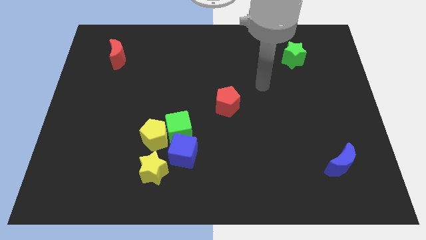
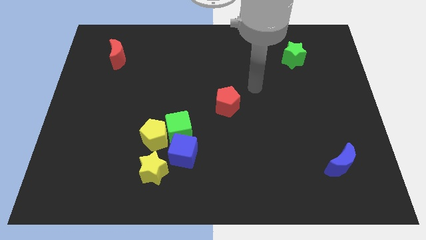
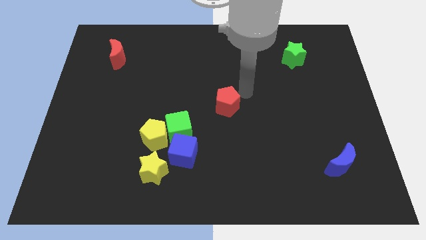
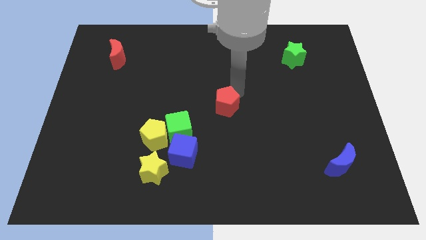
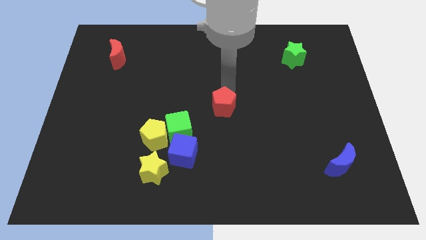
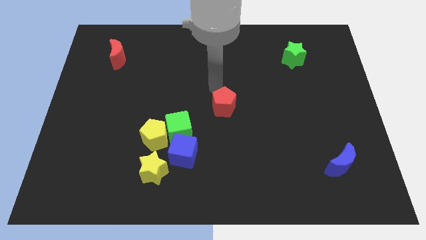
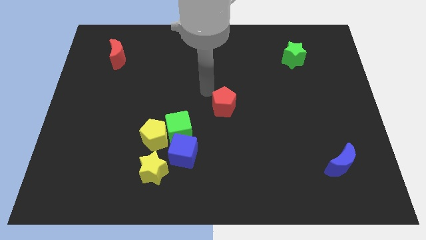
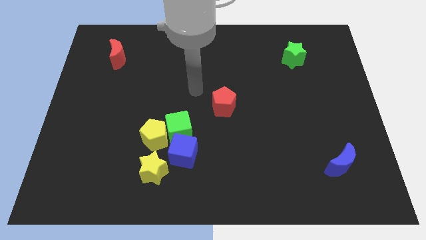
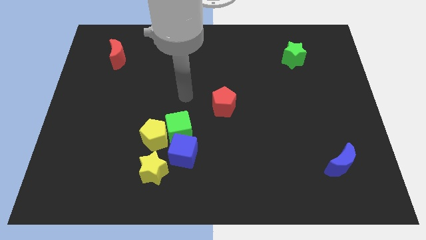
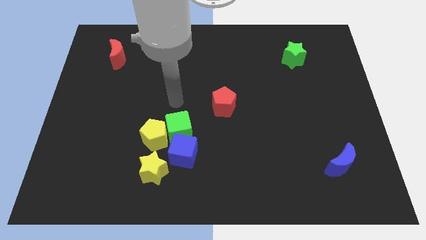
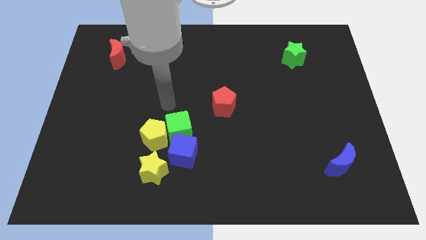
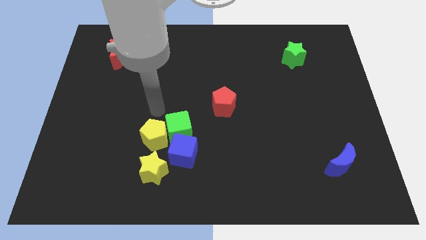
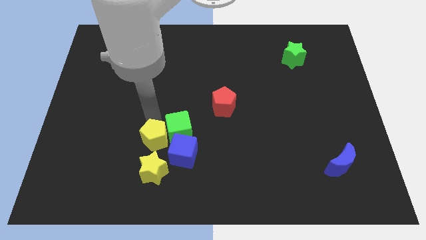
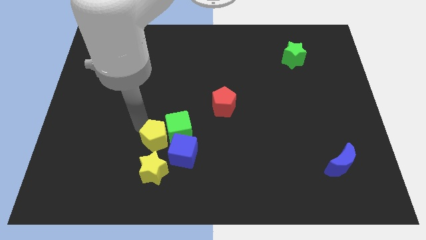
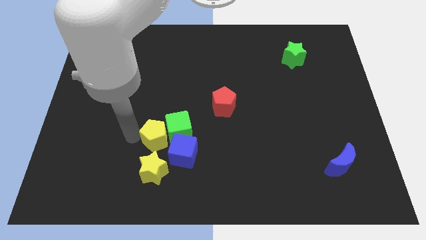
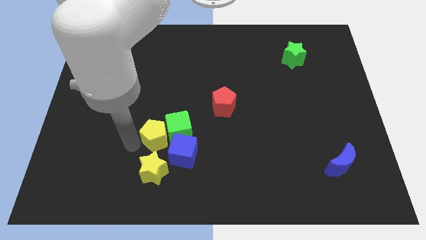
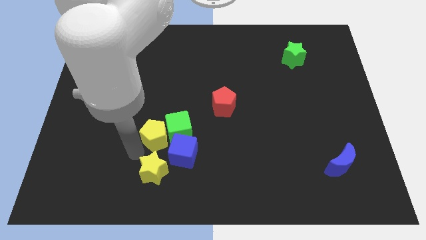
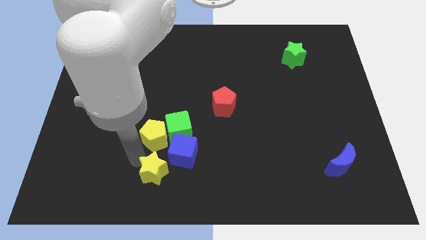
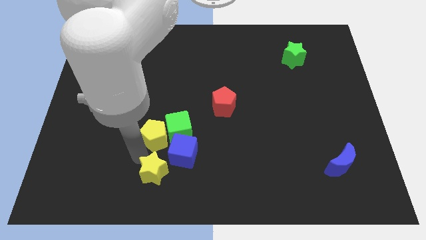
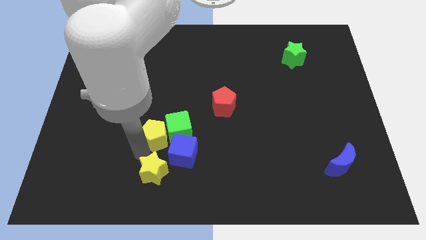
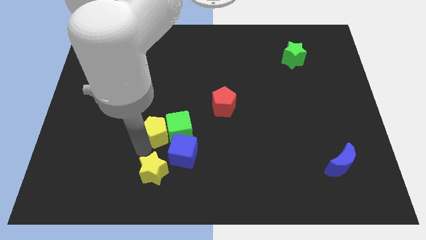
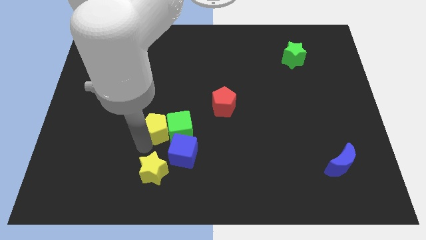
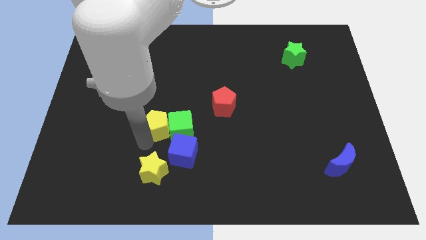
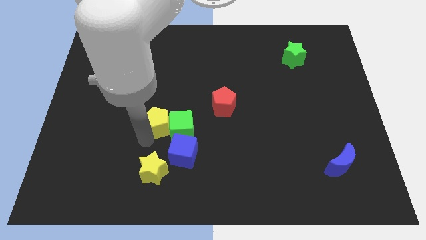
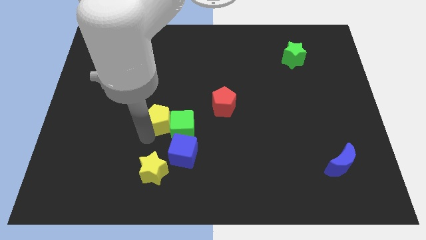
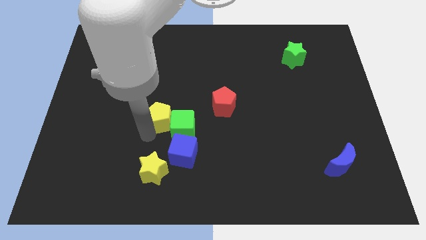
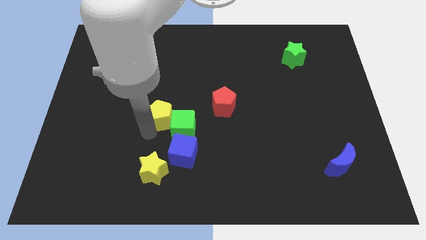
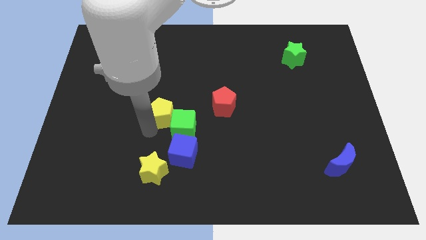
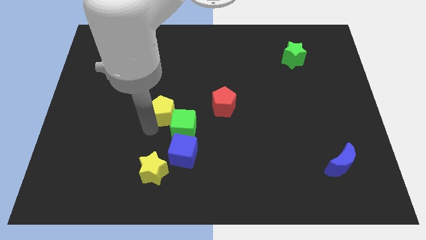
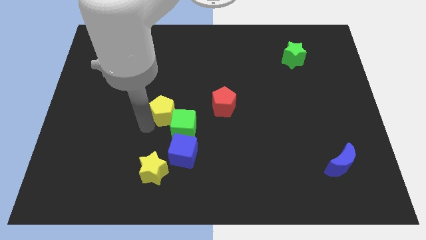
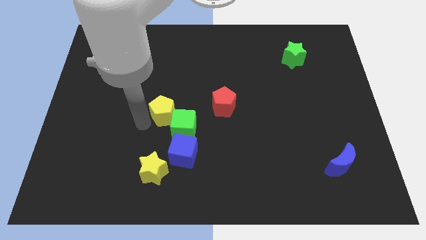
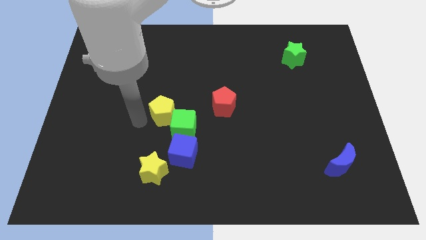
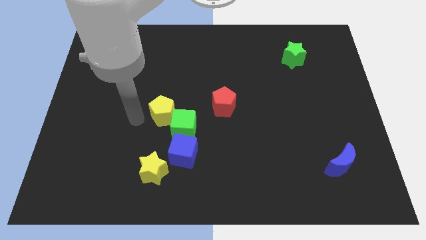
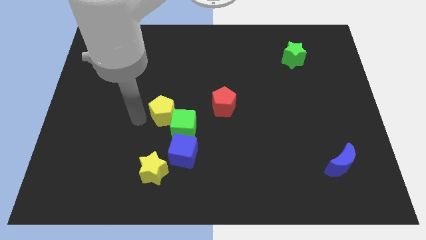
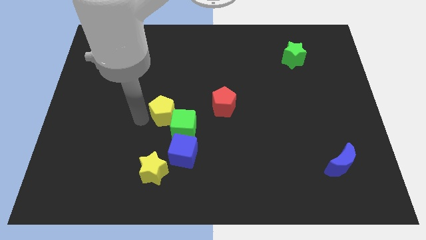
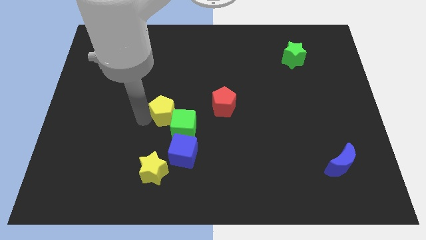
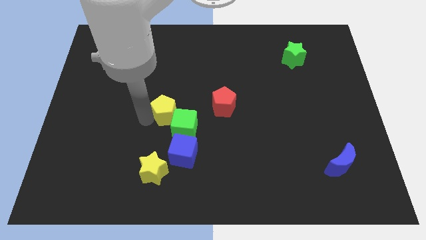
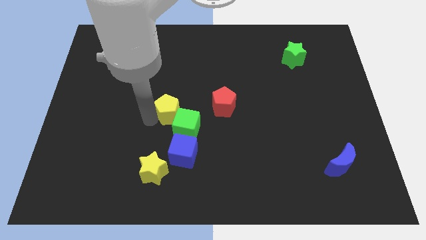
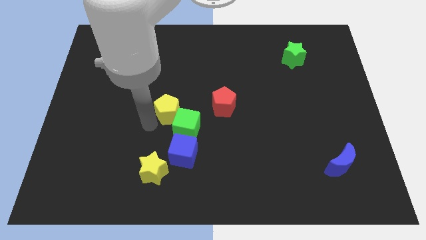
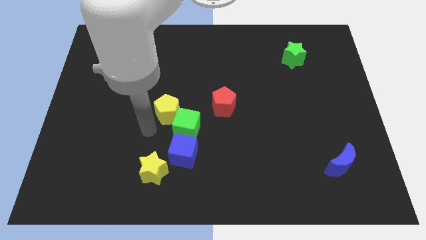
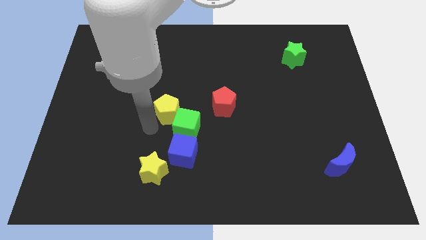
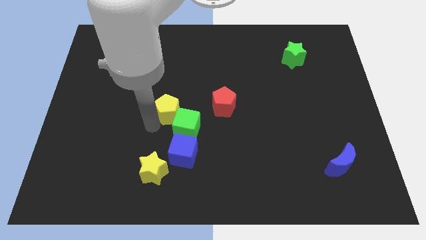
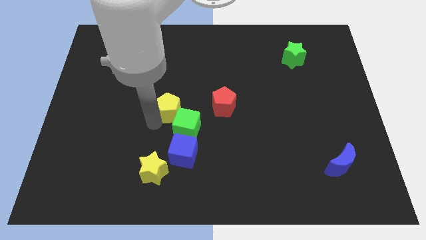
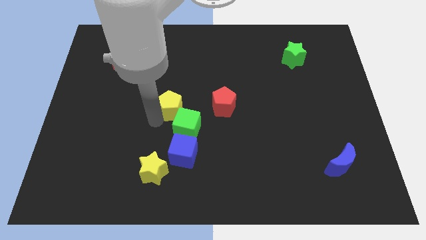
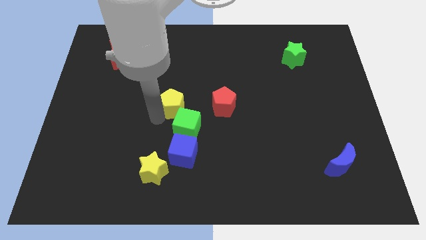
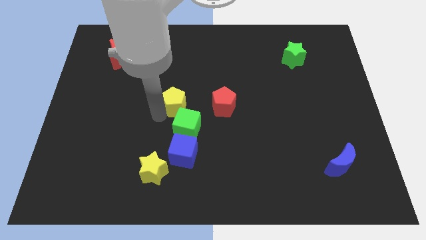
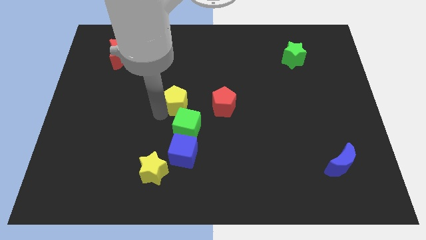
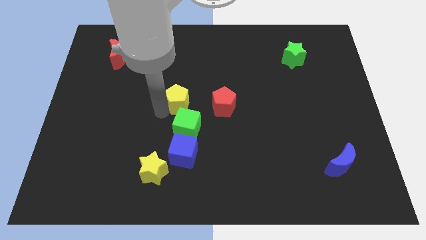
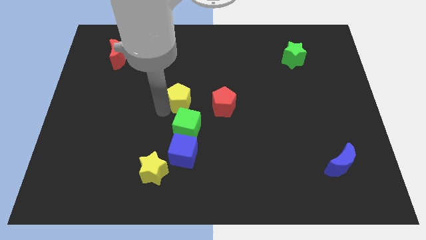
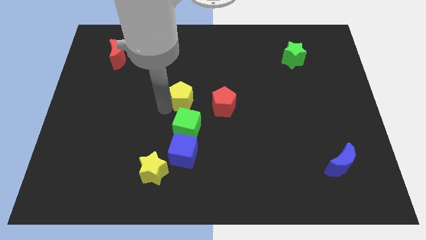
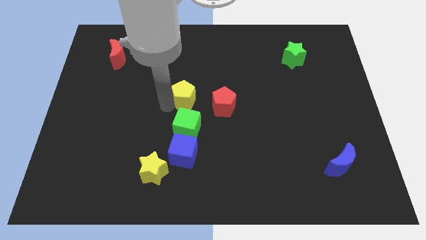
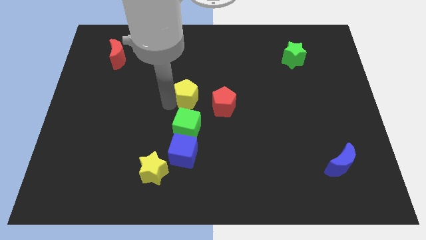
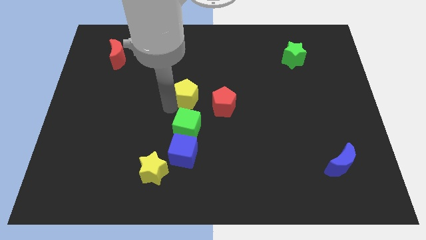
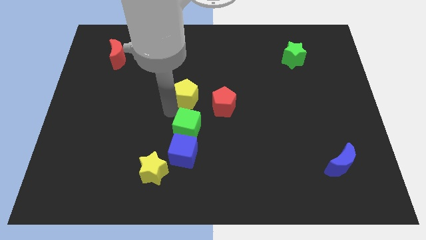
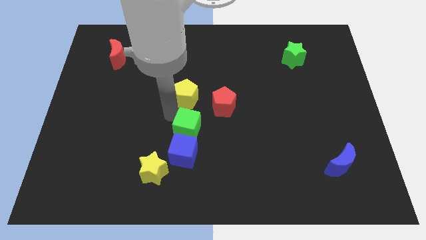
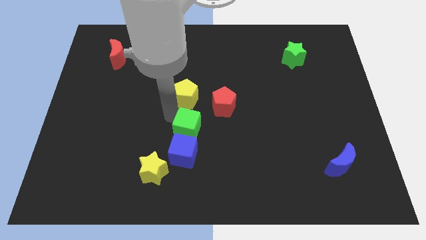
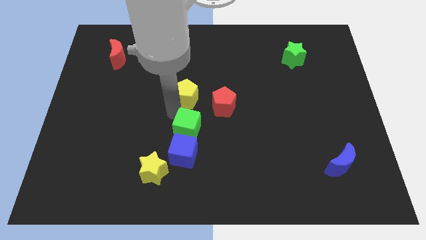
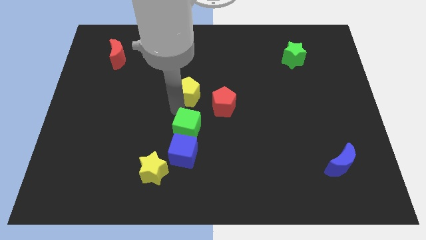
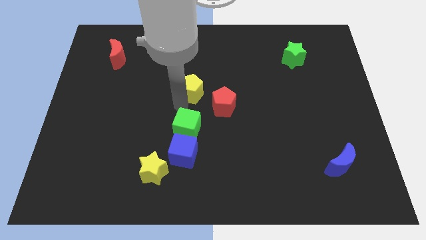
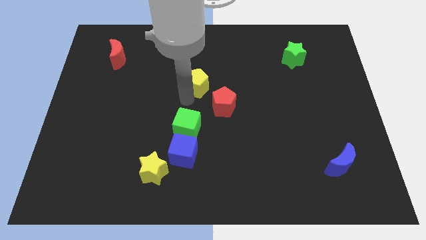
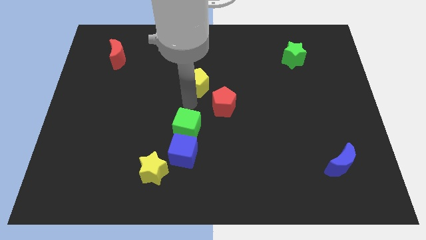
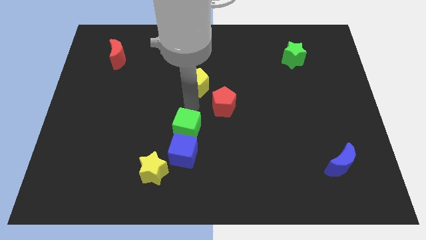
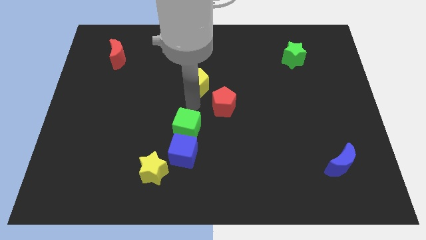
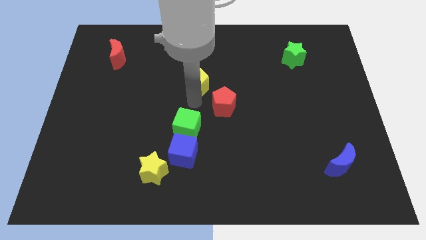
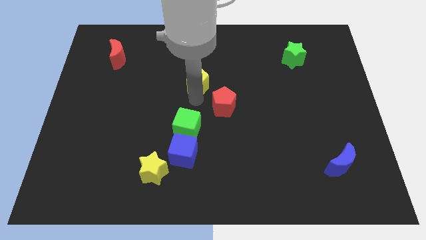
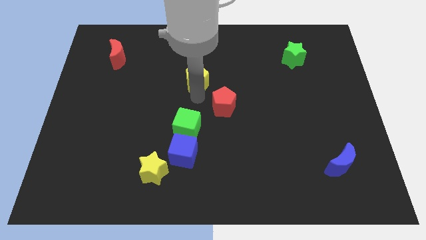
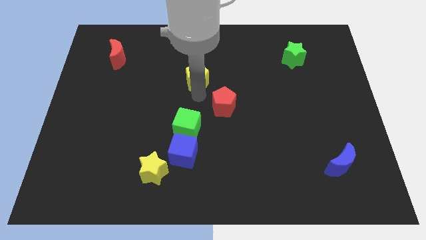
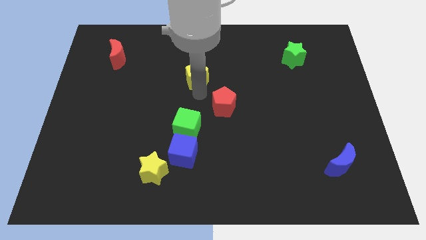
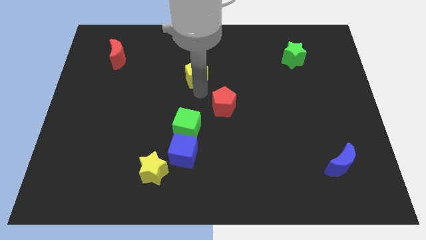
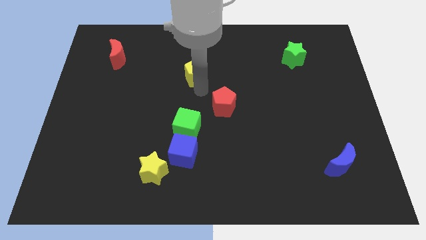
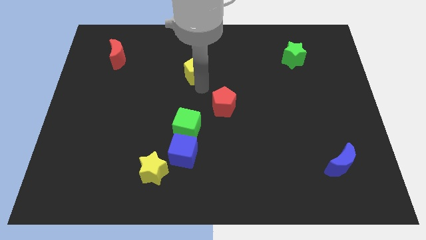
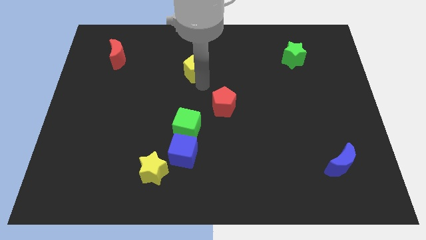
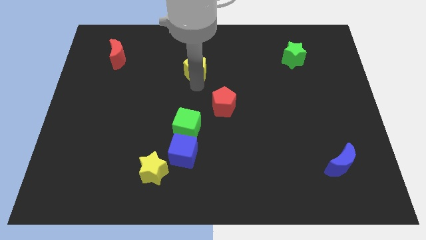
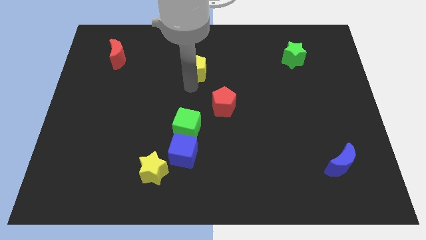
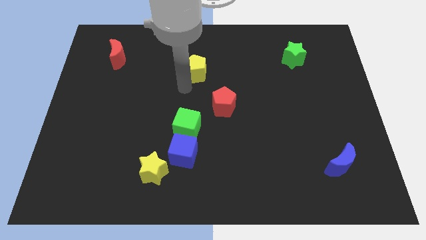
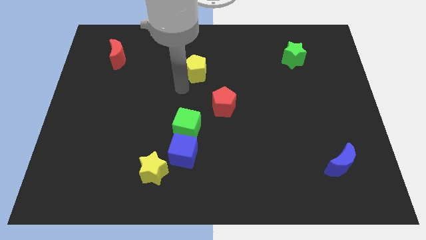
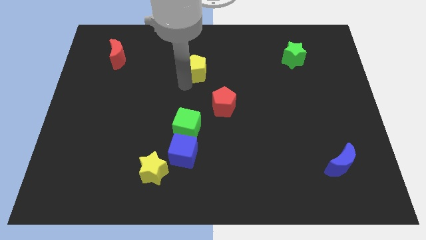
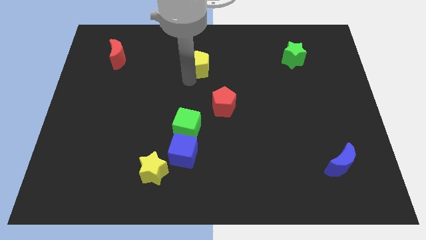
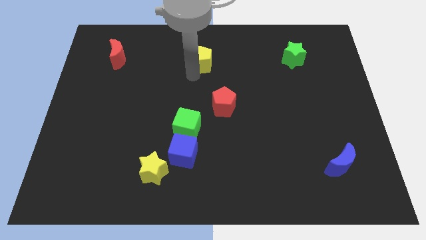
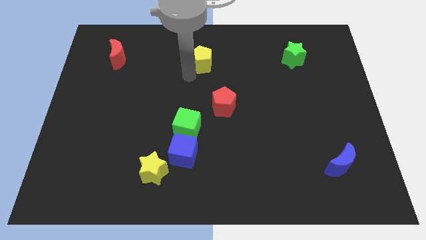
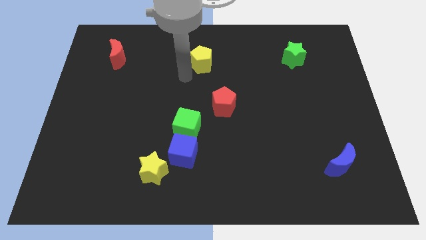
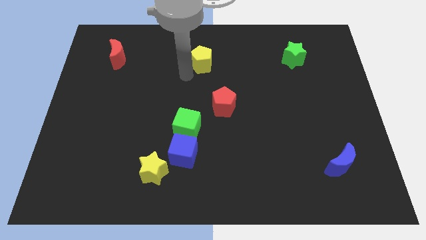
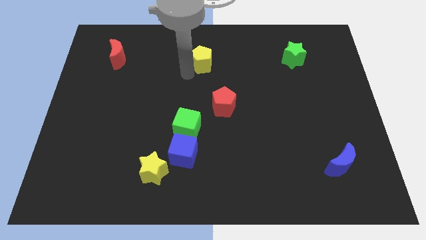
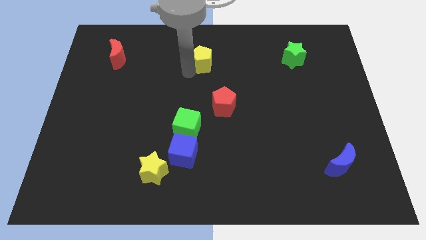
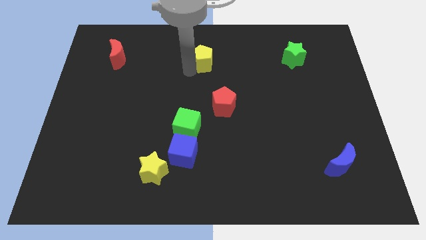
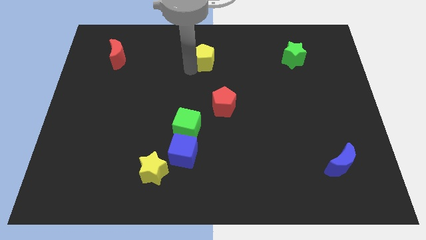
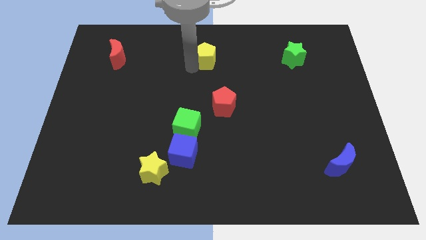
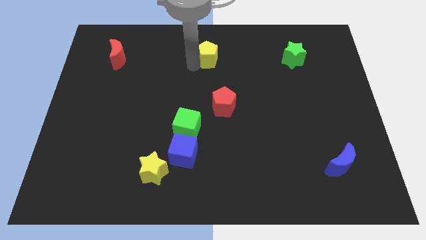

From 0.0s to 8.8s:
slide the yellow pentagon to the towards your base
